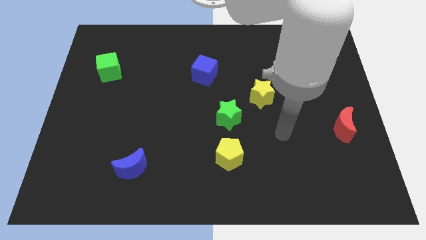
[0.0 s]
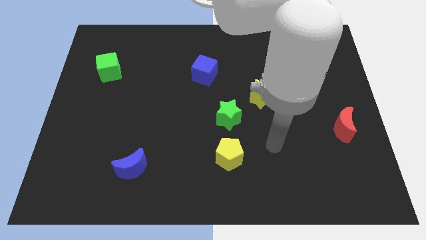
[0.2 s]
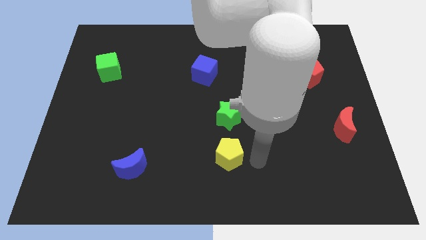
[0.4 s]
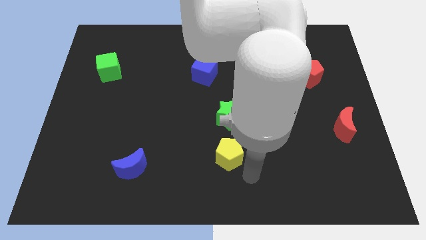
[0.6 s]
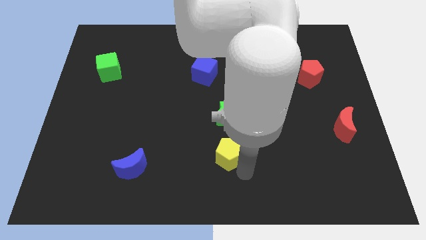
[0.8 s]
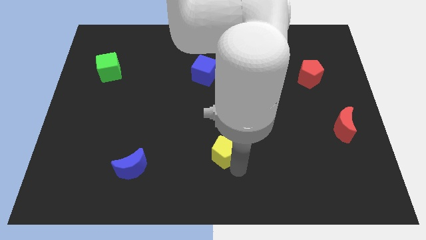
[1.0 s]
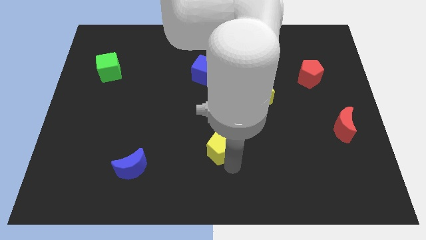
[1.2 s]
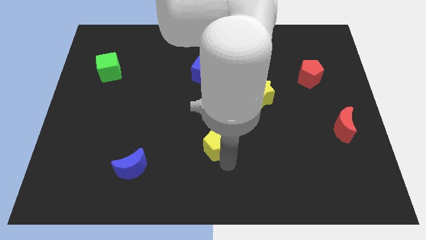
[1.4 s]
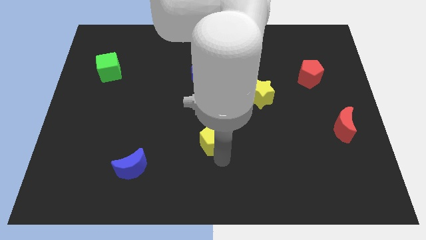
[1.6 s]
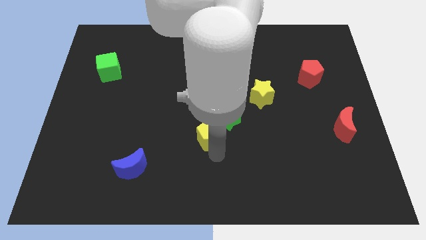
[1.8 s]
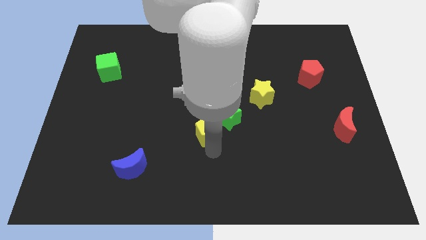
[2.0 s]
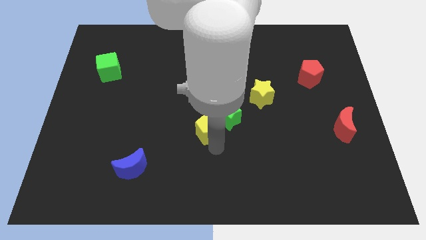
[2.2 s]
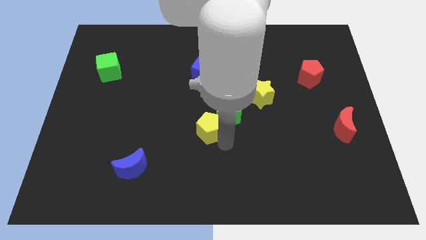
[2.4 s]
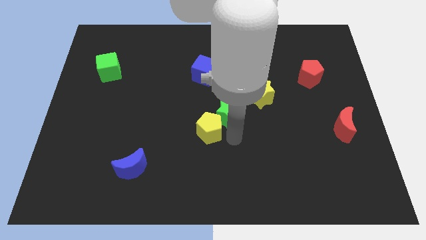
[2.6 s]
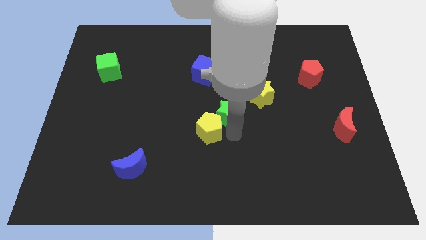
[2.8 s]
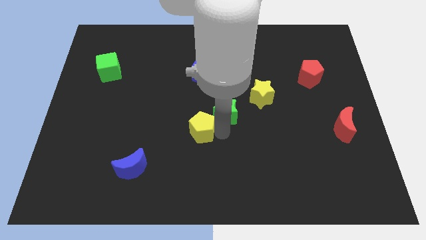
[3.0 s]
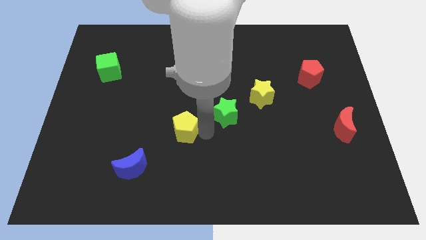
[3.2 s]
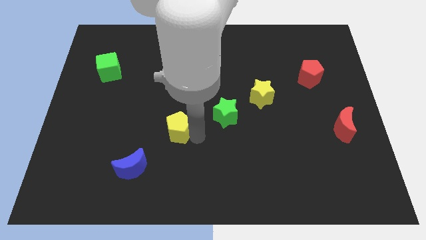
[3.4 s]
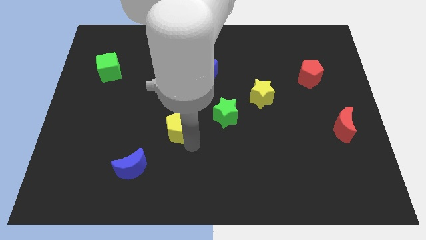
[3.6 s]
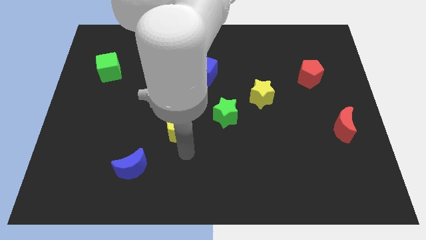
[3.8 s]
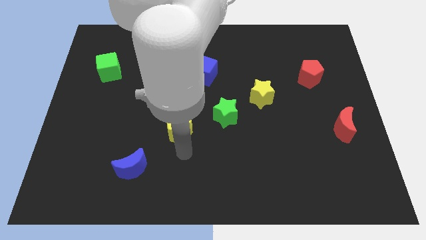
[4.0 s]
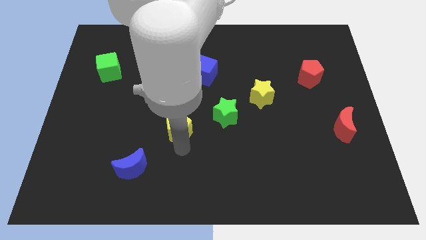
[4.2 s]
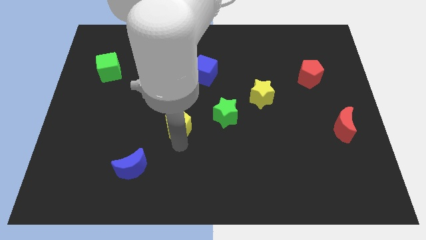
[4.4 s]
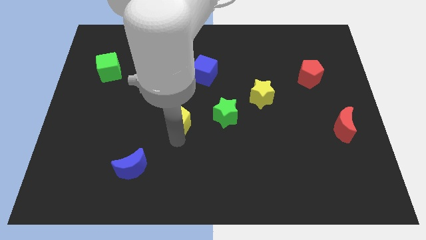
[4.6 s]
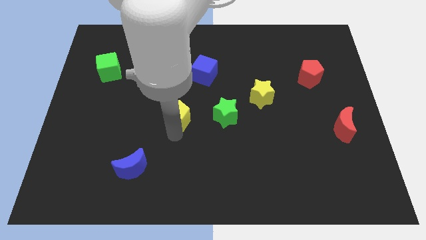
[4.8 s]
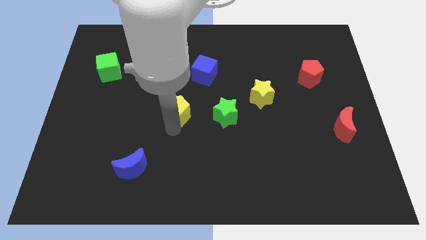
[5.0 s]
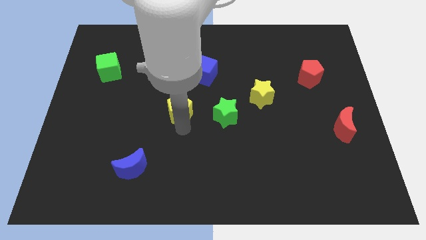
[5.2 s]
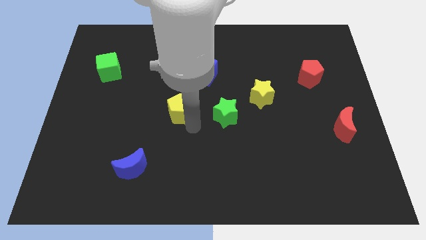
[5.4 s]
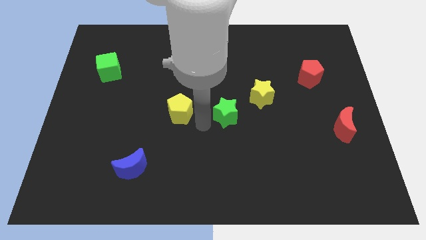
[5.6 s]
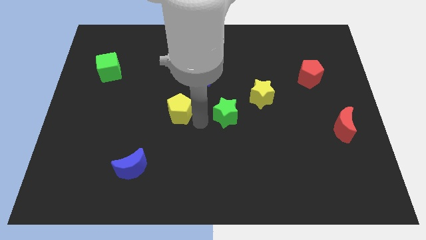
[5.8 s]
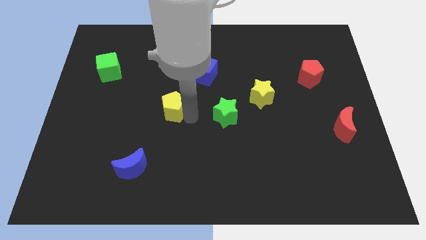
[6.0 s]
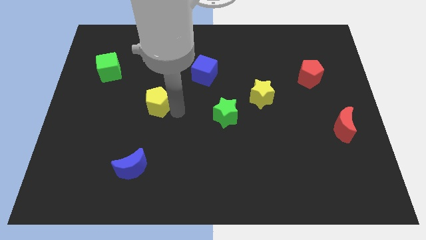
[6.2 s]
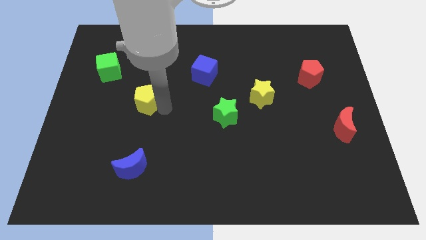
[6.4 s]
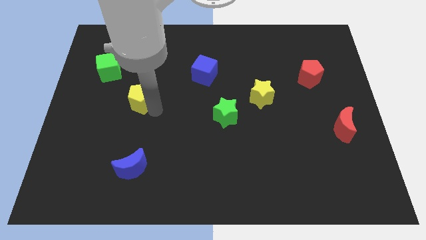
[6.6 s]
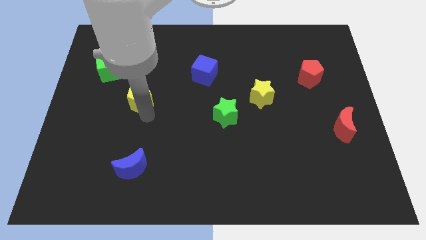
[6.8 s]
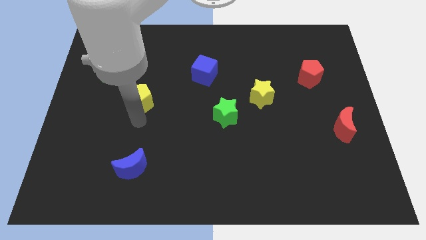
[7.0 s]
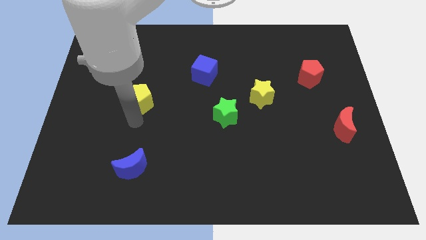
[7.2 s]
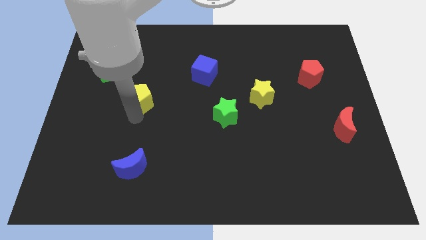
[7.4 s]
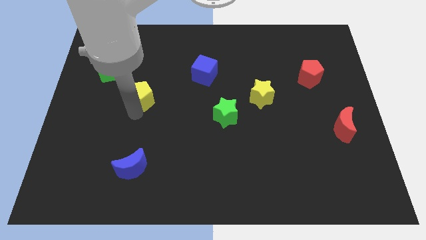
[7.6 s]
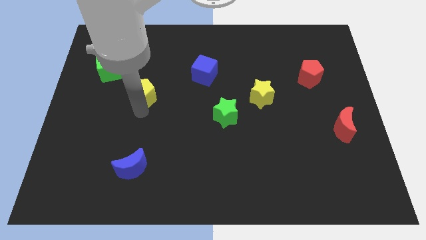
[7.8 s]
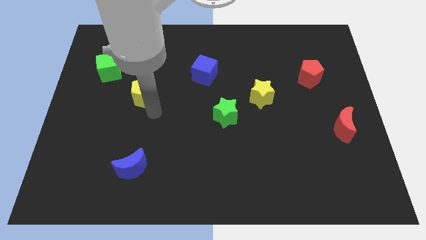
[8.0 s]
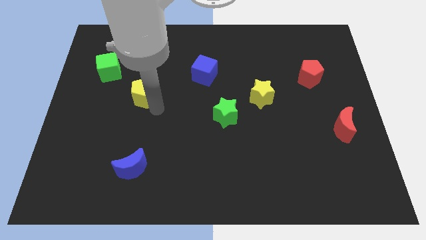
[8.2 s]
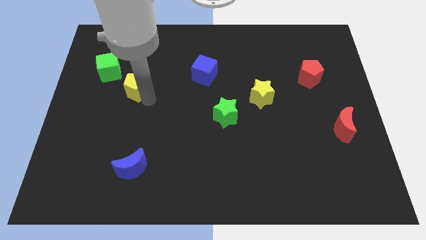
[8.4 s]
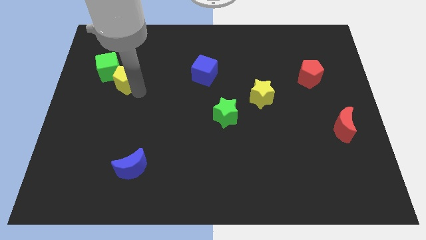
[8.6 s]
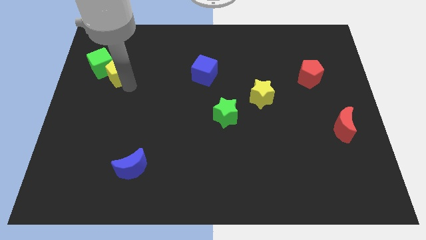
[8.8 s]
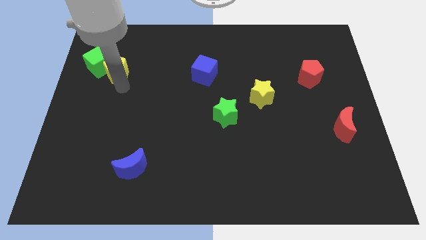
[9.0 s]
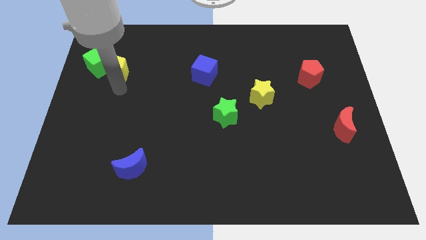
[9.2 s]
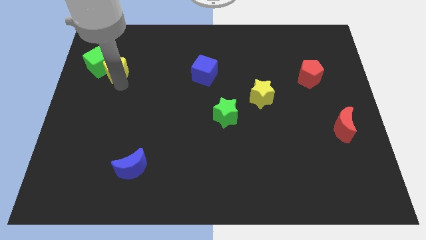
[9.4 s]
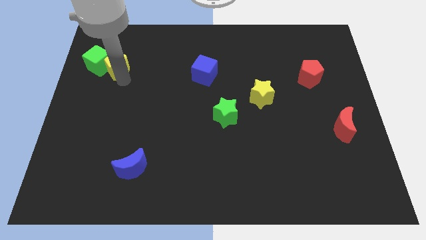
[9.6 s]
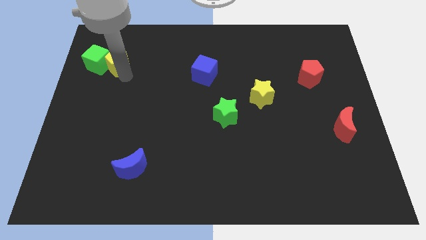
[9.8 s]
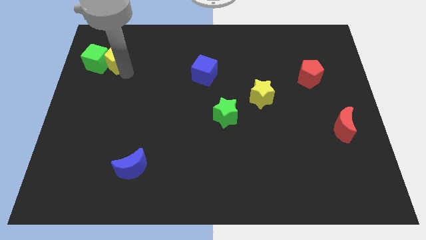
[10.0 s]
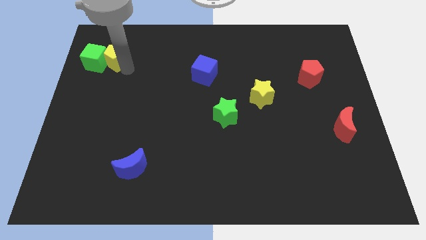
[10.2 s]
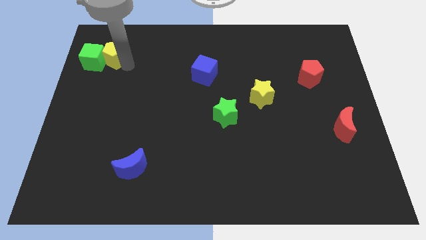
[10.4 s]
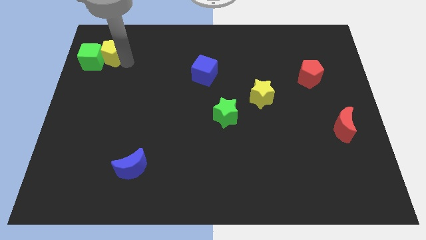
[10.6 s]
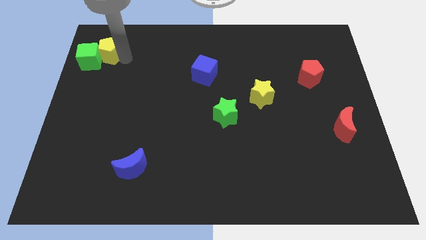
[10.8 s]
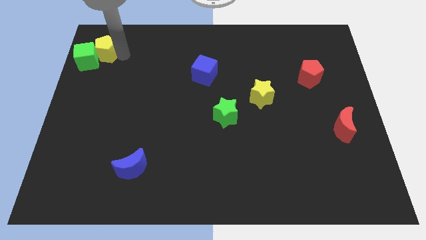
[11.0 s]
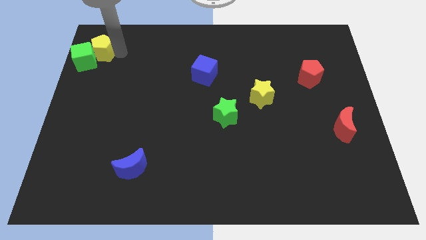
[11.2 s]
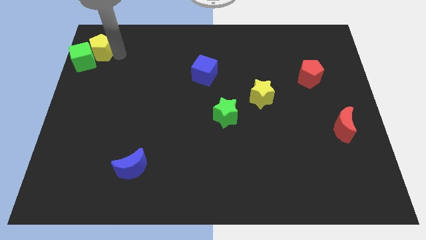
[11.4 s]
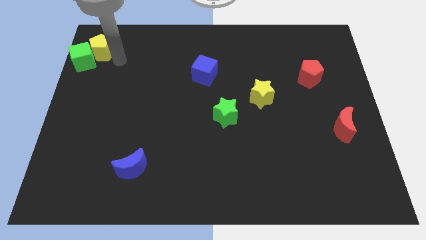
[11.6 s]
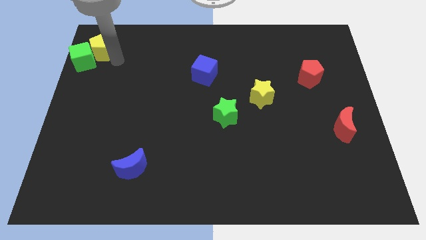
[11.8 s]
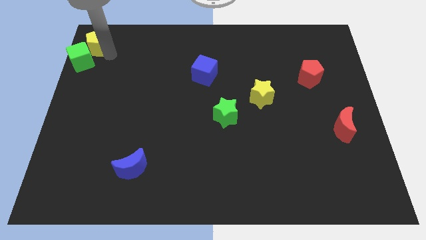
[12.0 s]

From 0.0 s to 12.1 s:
put the yellow pentagon to the top left corner
